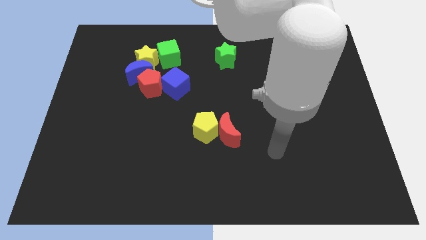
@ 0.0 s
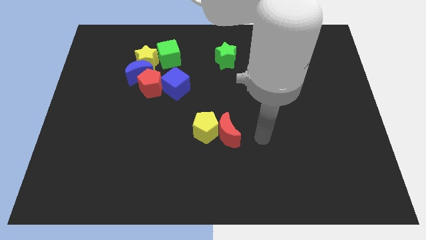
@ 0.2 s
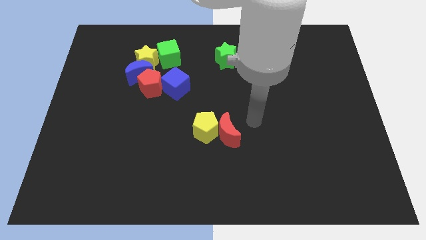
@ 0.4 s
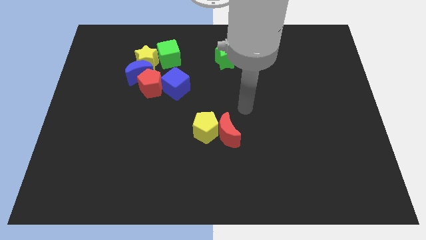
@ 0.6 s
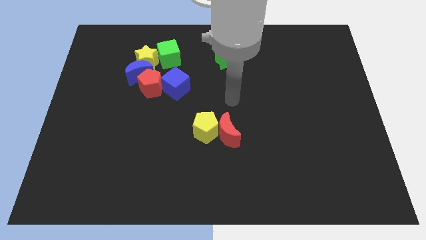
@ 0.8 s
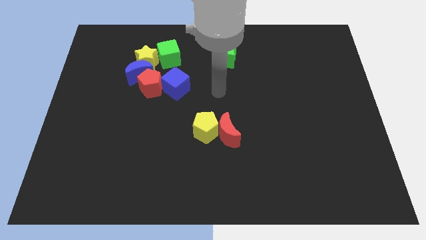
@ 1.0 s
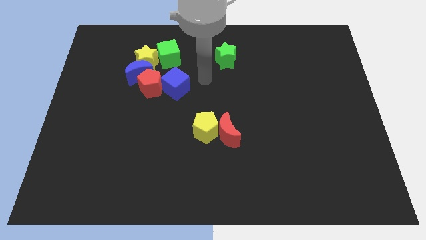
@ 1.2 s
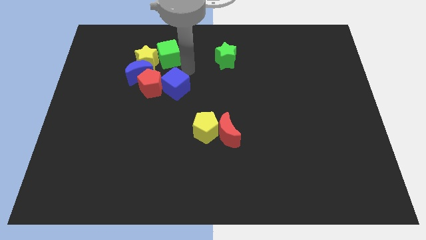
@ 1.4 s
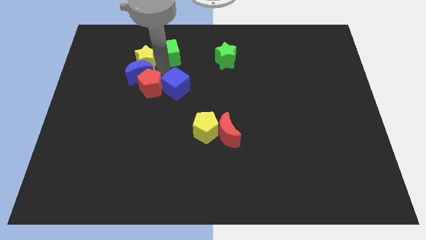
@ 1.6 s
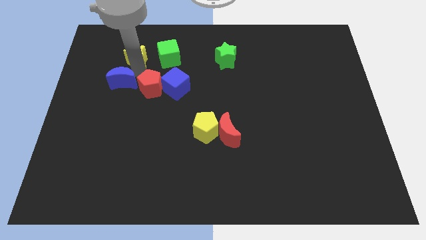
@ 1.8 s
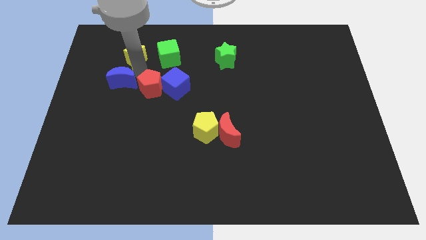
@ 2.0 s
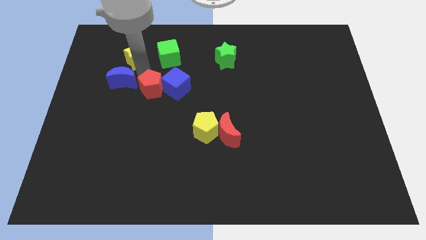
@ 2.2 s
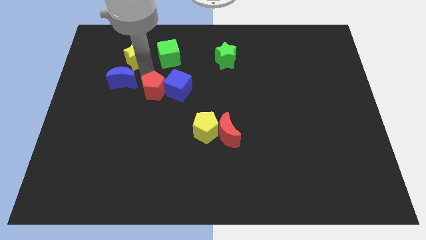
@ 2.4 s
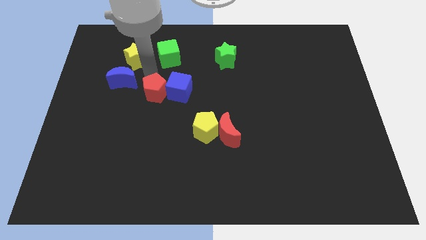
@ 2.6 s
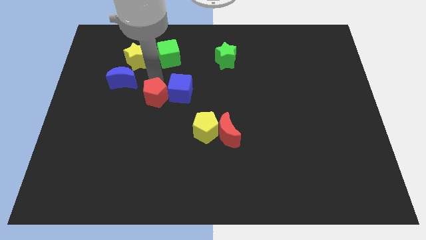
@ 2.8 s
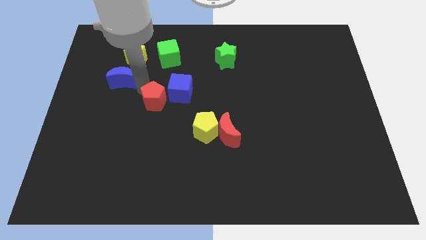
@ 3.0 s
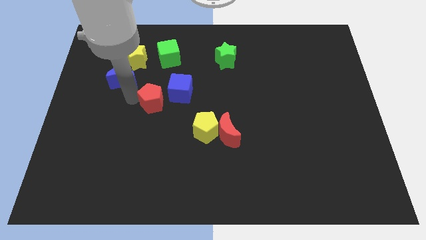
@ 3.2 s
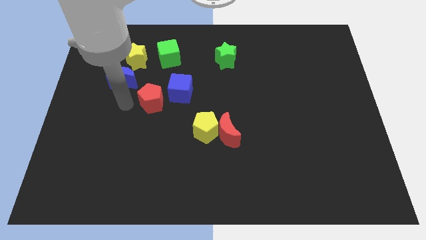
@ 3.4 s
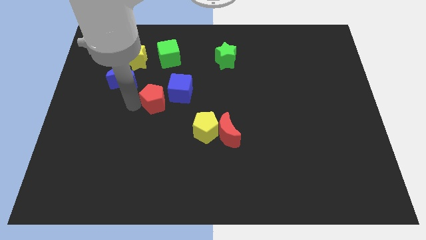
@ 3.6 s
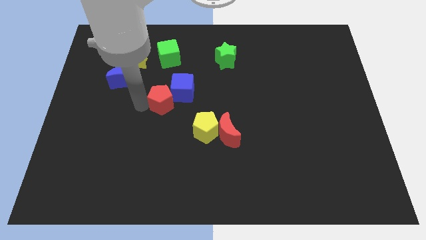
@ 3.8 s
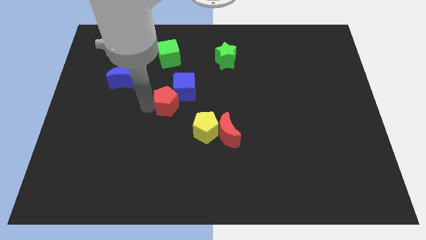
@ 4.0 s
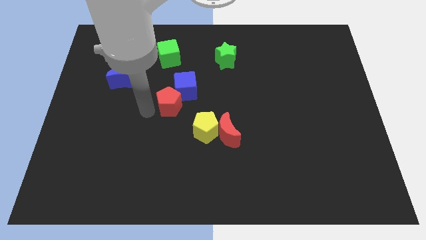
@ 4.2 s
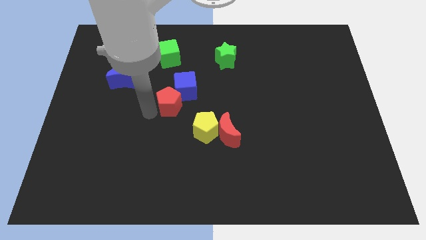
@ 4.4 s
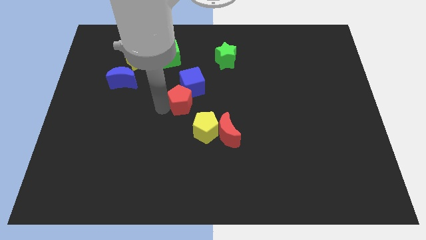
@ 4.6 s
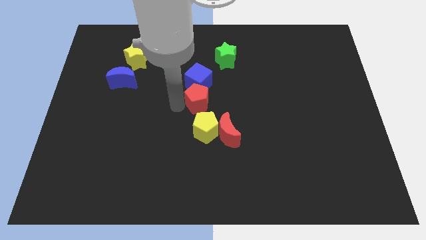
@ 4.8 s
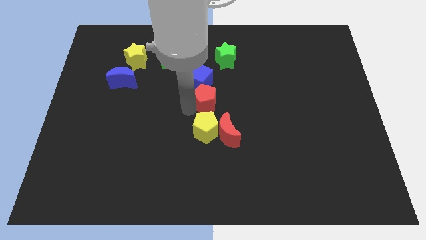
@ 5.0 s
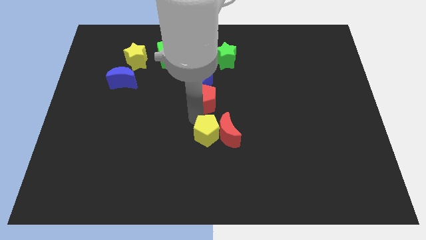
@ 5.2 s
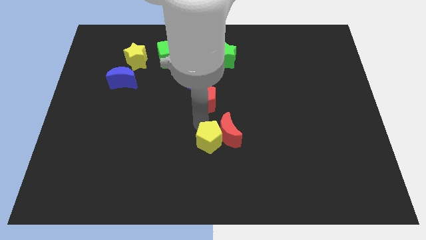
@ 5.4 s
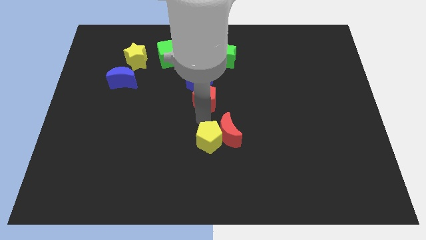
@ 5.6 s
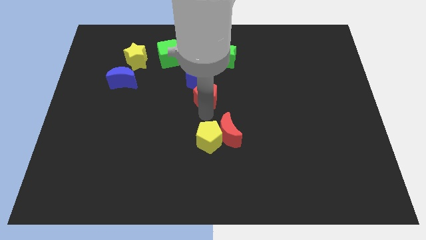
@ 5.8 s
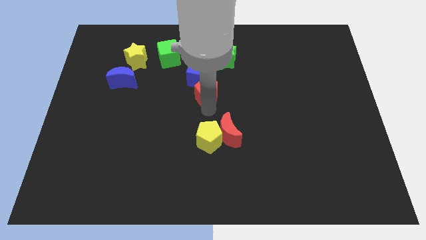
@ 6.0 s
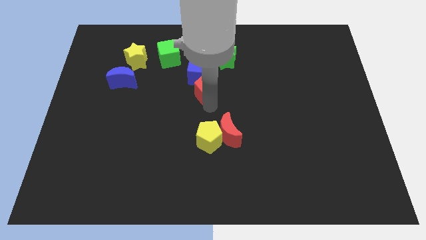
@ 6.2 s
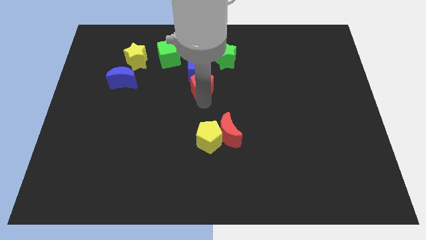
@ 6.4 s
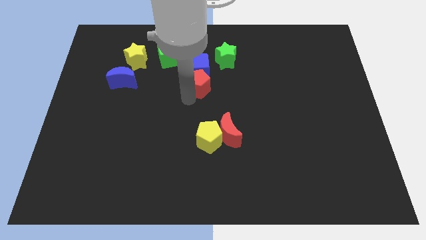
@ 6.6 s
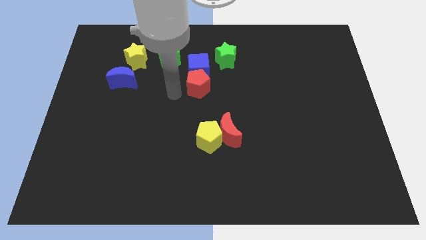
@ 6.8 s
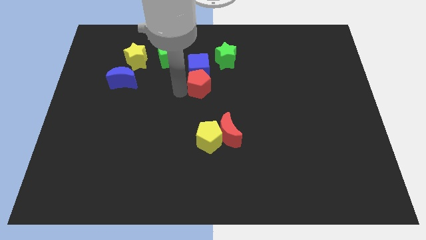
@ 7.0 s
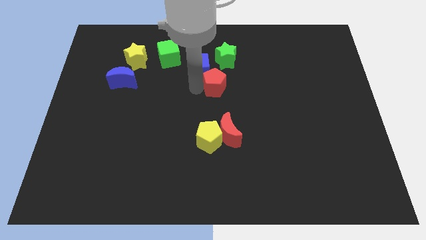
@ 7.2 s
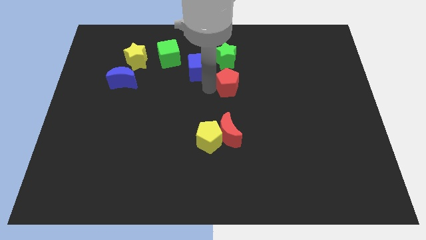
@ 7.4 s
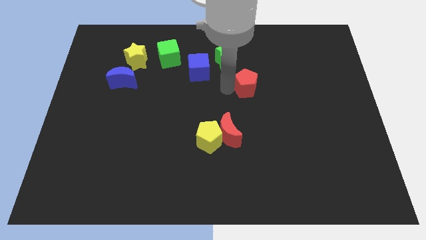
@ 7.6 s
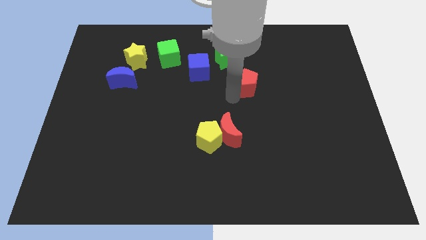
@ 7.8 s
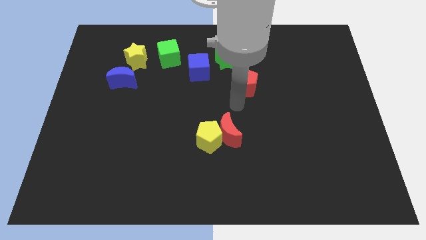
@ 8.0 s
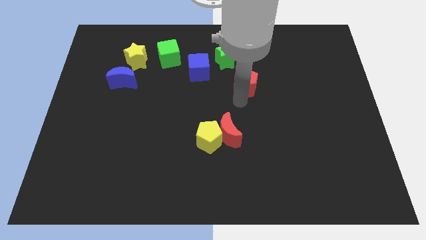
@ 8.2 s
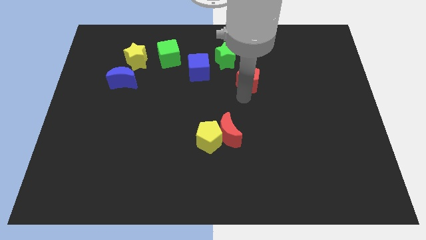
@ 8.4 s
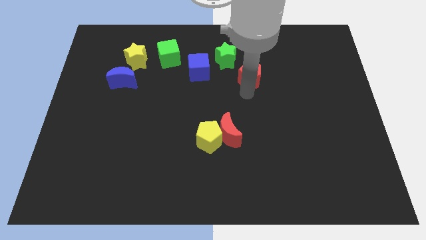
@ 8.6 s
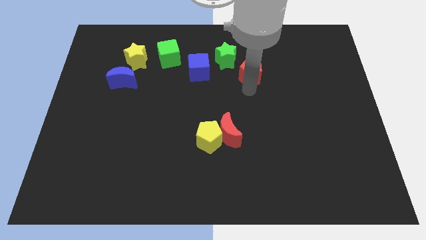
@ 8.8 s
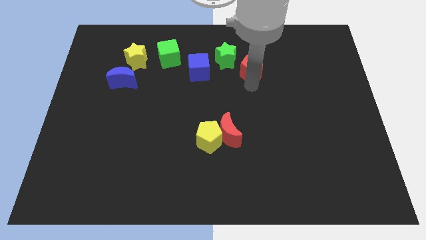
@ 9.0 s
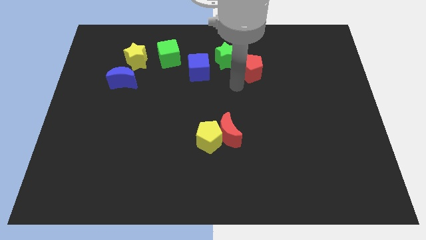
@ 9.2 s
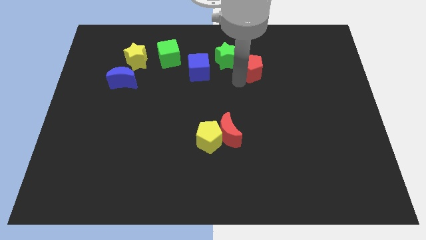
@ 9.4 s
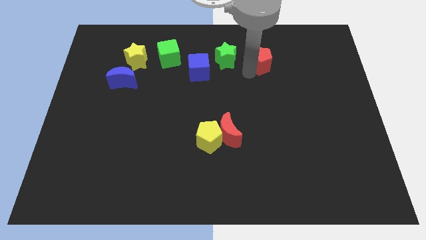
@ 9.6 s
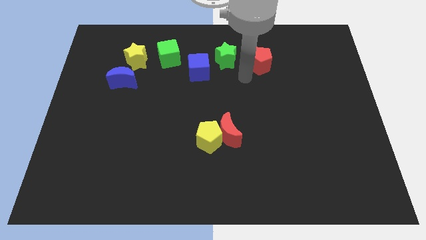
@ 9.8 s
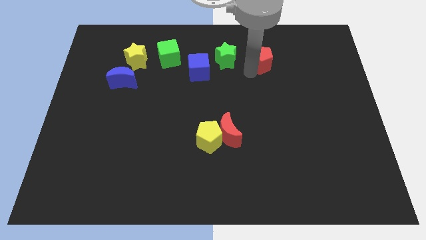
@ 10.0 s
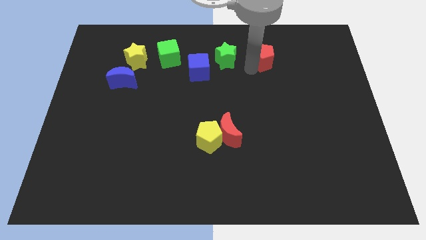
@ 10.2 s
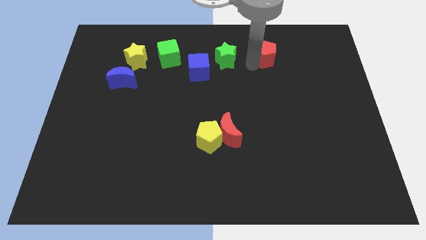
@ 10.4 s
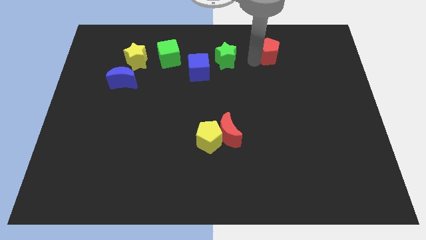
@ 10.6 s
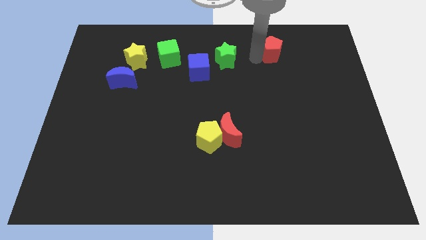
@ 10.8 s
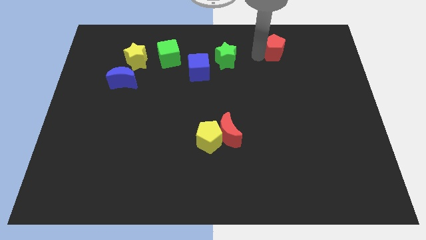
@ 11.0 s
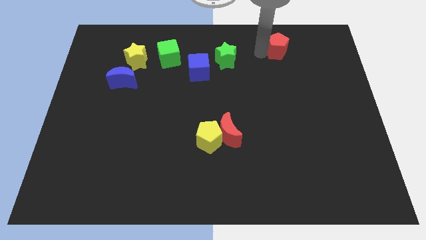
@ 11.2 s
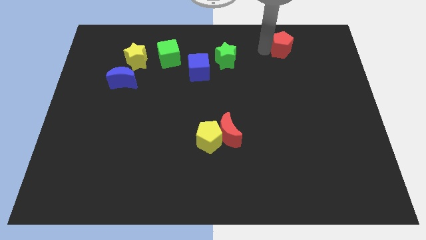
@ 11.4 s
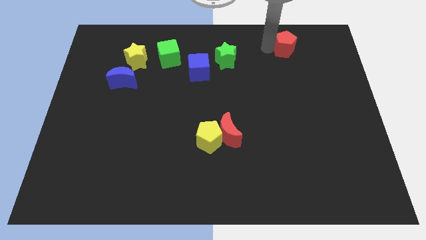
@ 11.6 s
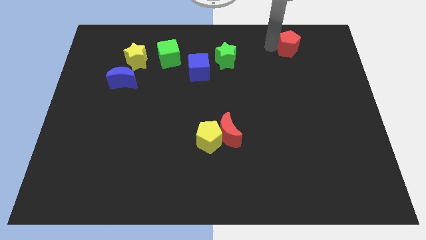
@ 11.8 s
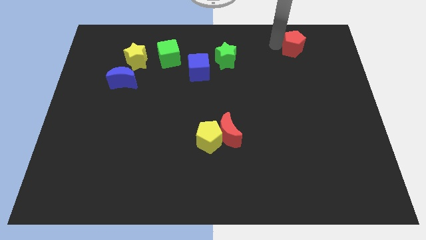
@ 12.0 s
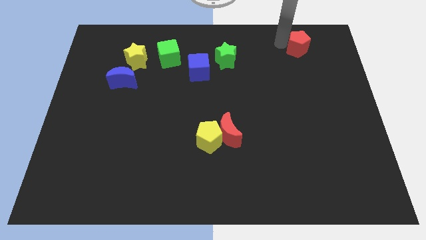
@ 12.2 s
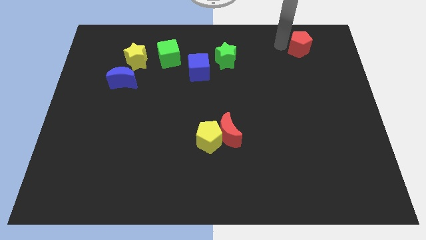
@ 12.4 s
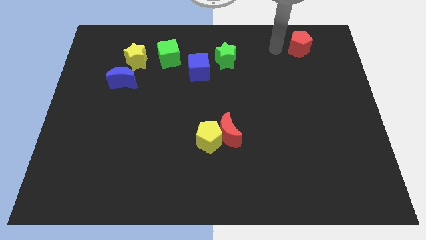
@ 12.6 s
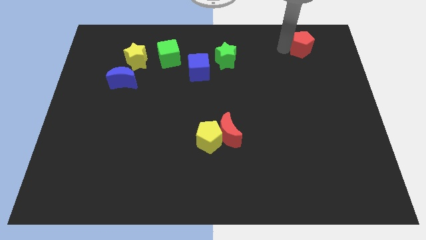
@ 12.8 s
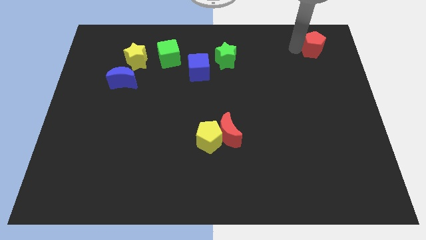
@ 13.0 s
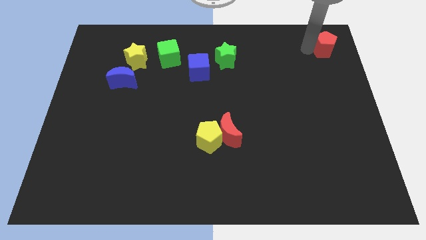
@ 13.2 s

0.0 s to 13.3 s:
slide the red pentagon to the upper right corner

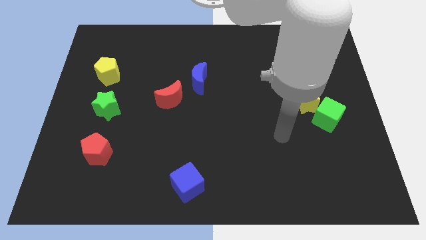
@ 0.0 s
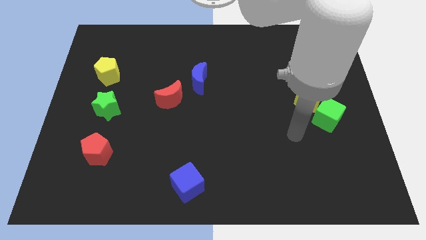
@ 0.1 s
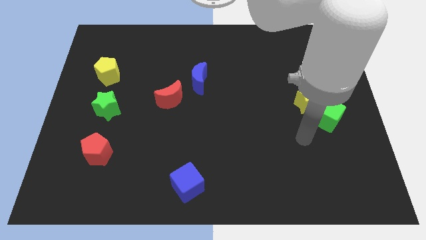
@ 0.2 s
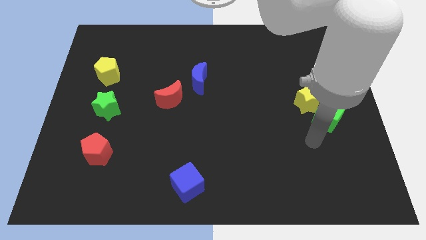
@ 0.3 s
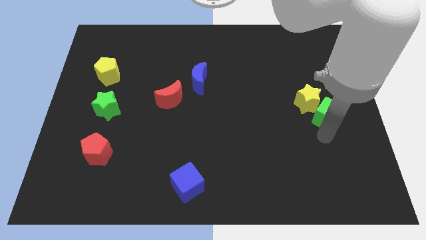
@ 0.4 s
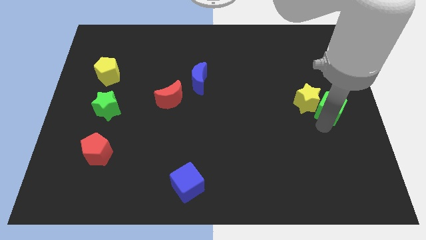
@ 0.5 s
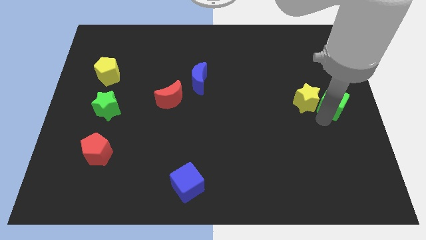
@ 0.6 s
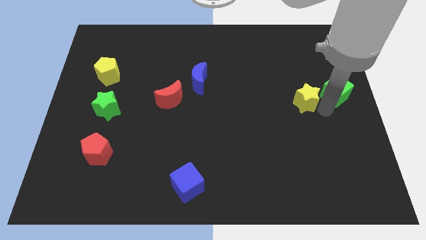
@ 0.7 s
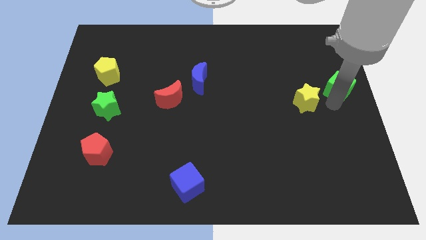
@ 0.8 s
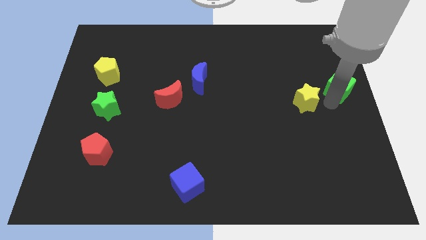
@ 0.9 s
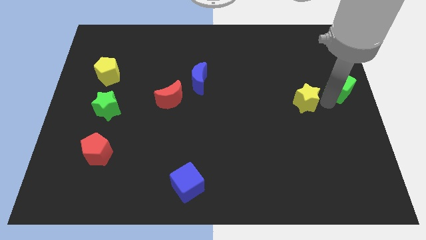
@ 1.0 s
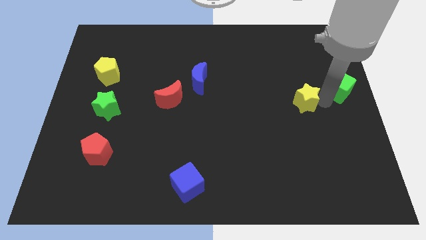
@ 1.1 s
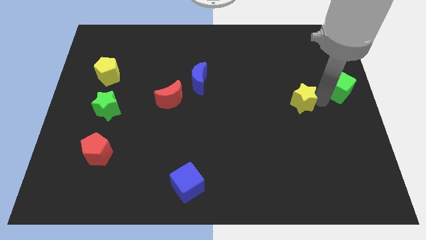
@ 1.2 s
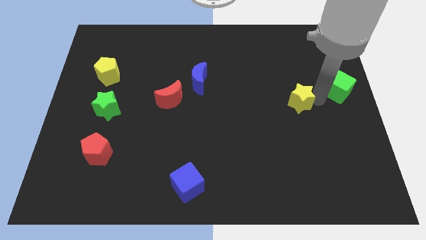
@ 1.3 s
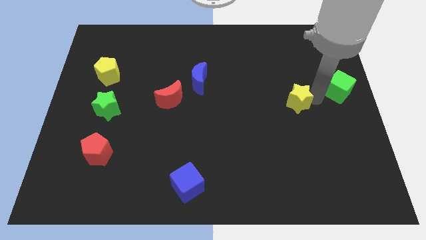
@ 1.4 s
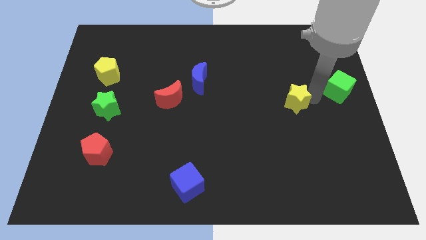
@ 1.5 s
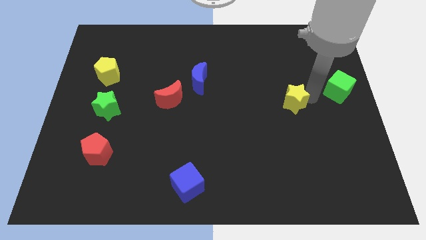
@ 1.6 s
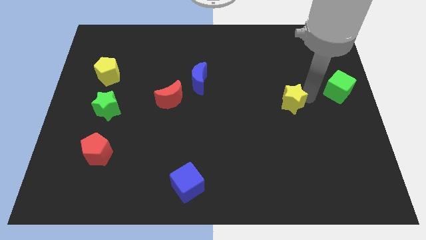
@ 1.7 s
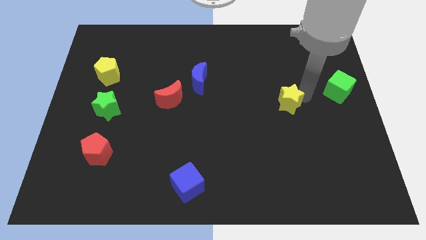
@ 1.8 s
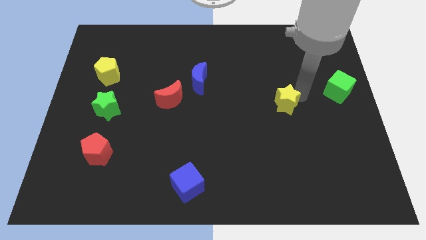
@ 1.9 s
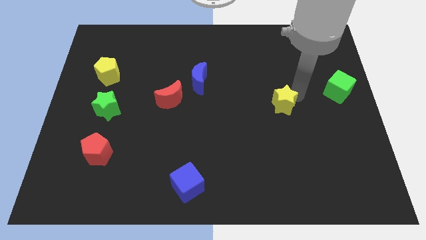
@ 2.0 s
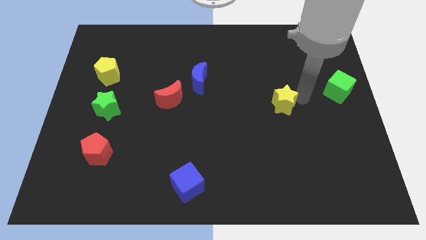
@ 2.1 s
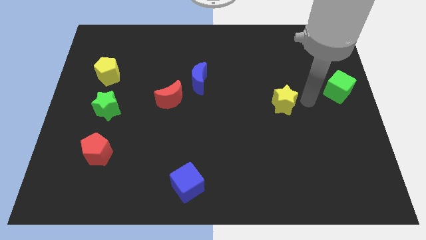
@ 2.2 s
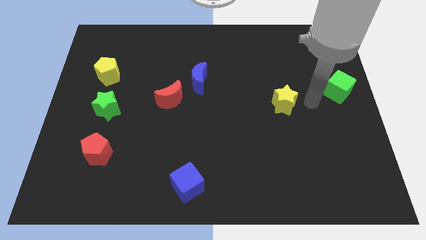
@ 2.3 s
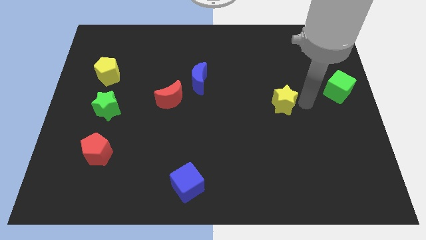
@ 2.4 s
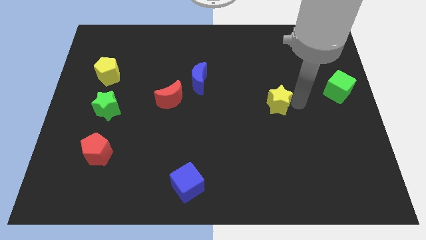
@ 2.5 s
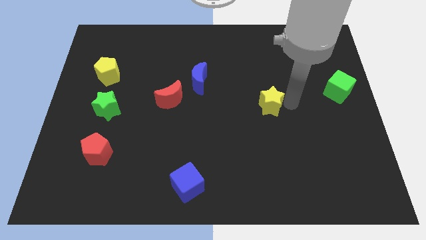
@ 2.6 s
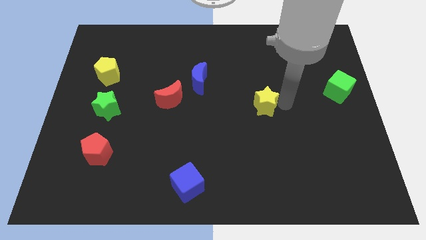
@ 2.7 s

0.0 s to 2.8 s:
move the yellow star to the middle of the board
